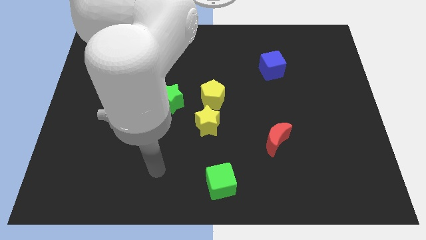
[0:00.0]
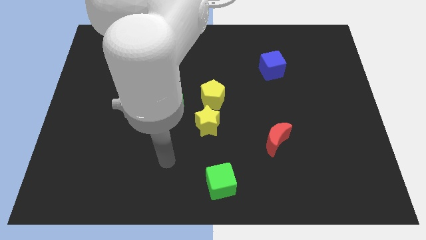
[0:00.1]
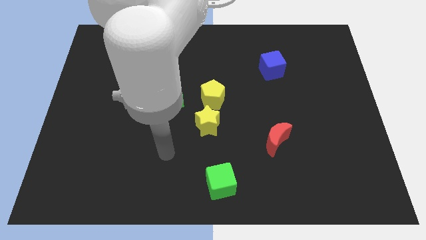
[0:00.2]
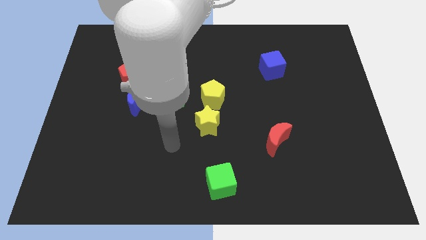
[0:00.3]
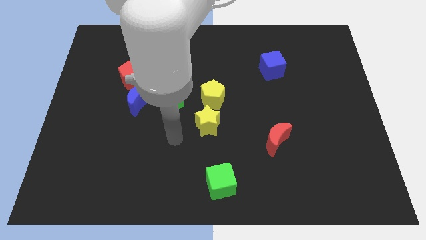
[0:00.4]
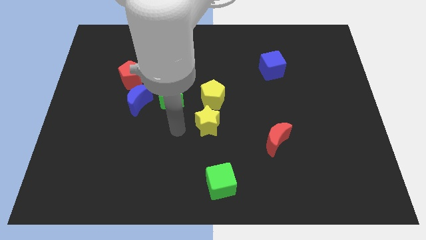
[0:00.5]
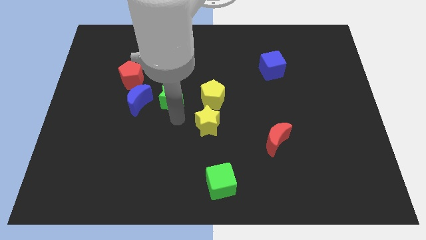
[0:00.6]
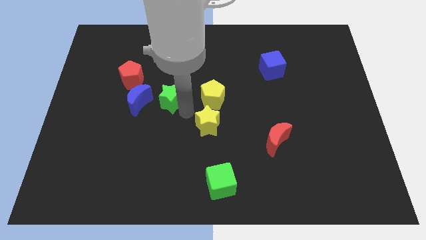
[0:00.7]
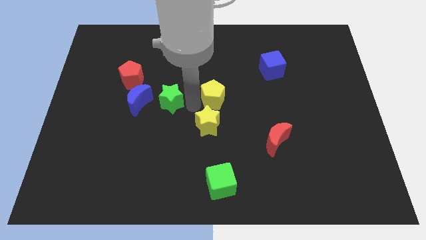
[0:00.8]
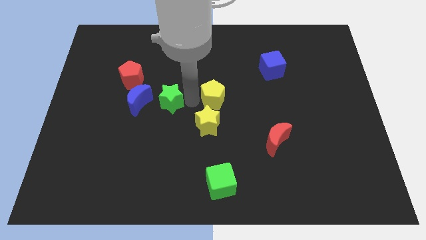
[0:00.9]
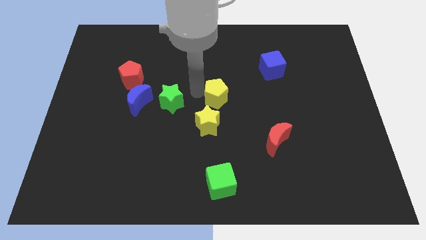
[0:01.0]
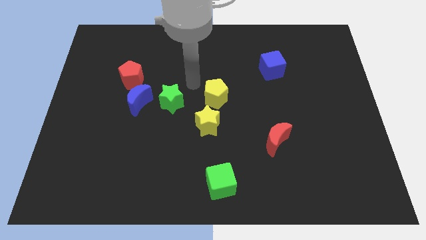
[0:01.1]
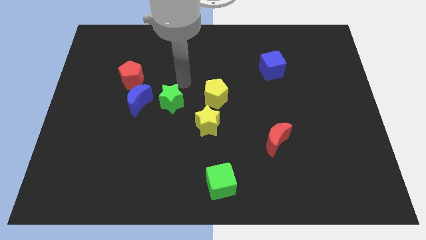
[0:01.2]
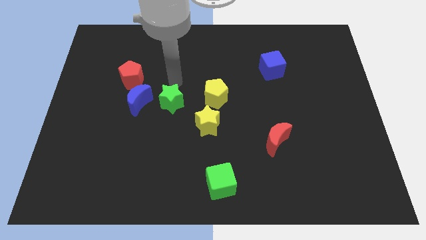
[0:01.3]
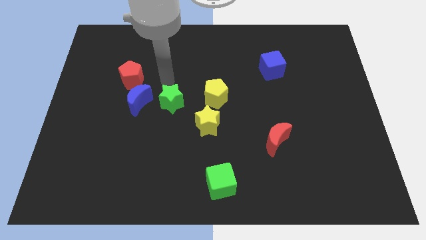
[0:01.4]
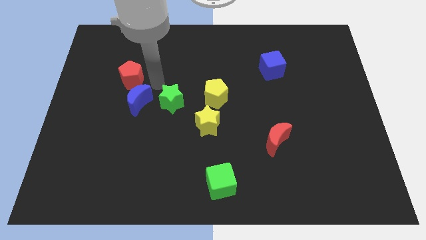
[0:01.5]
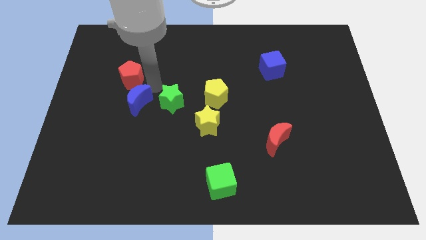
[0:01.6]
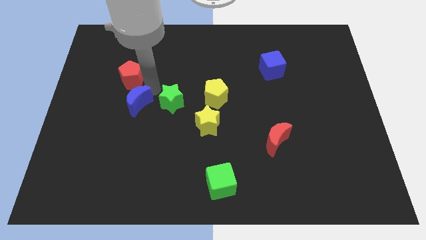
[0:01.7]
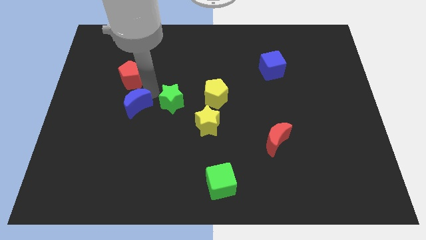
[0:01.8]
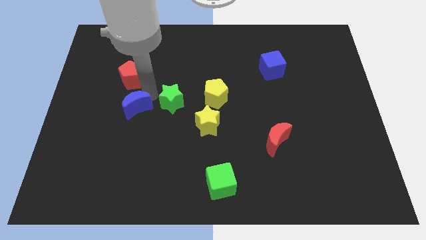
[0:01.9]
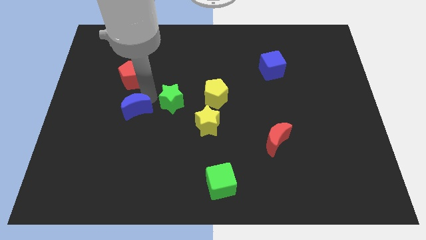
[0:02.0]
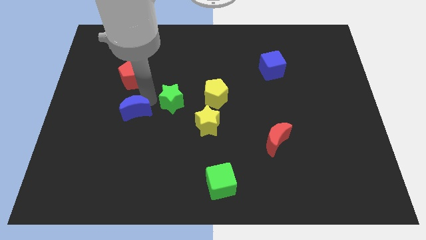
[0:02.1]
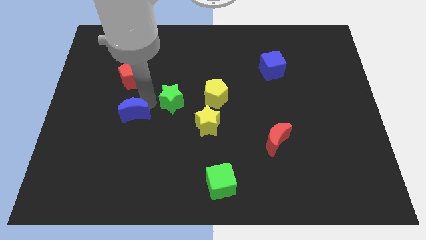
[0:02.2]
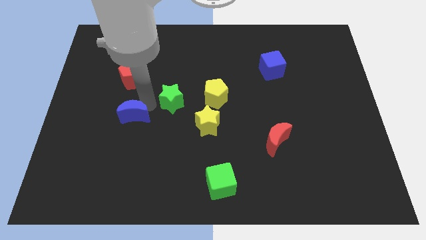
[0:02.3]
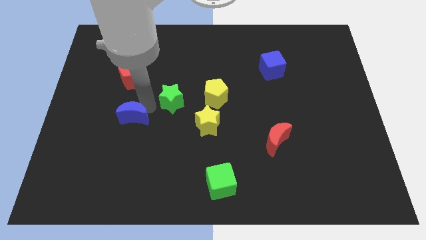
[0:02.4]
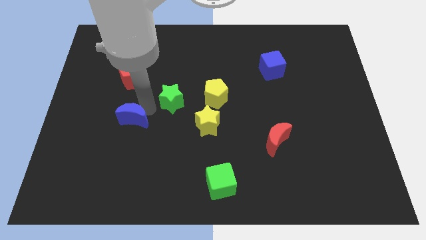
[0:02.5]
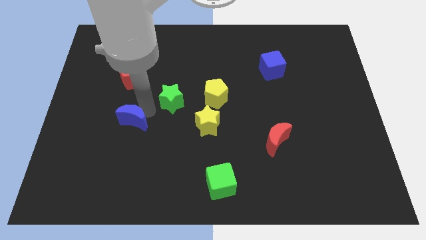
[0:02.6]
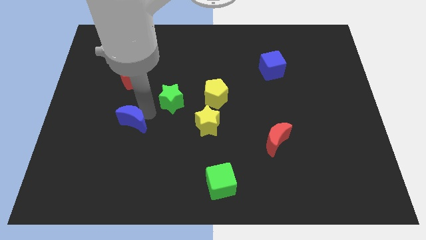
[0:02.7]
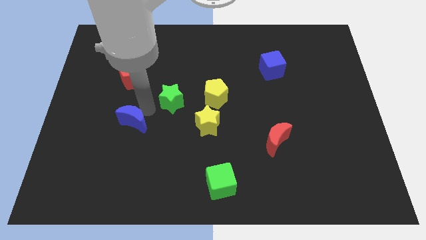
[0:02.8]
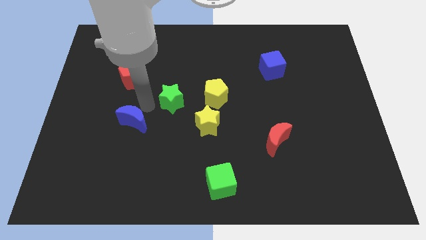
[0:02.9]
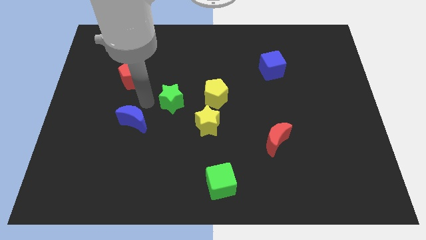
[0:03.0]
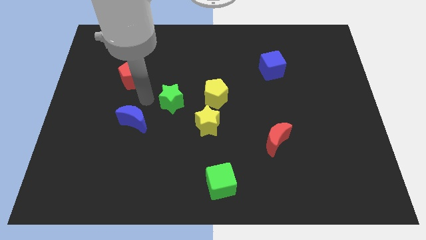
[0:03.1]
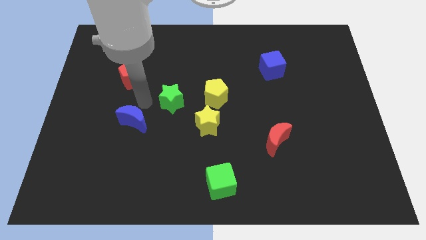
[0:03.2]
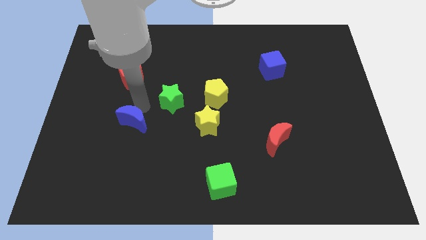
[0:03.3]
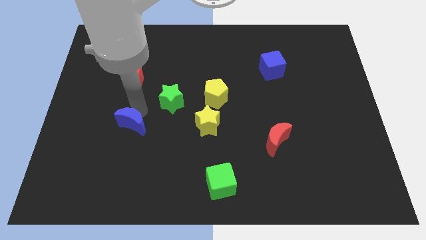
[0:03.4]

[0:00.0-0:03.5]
move the blue moon away from the green star and red pentagon

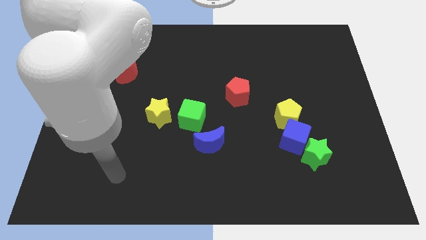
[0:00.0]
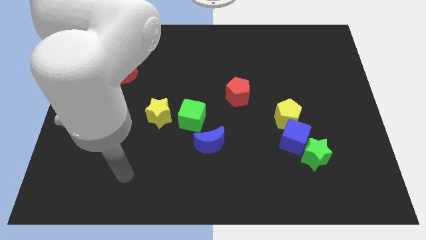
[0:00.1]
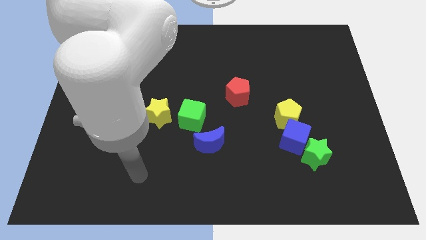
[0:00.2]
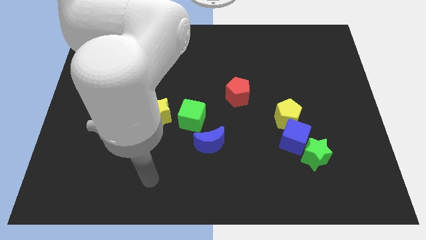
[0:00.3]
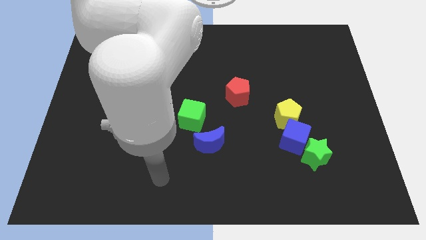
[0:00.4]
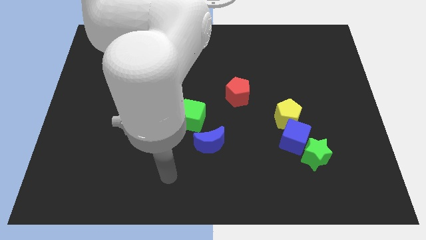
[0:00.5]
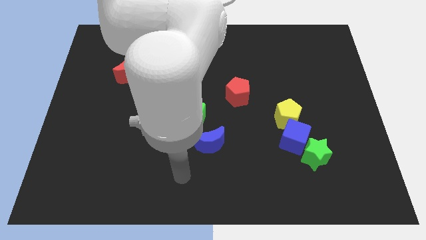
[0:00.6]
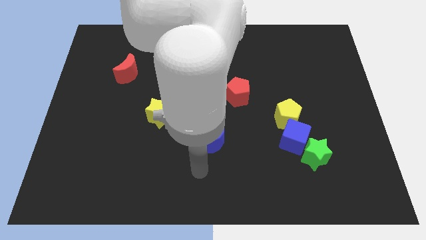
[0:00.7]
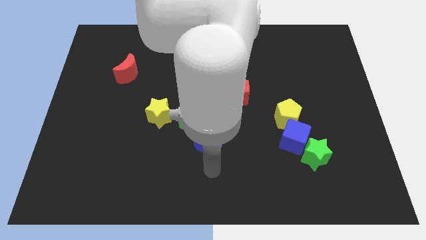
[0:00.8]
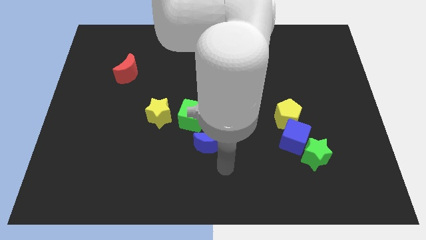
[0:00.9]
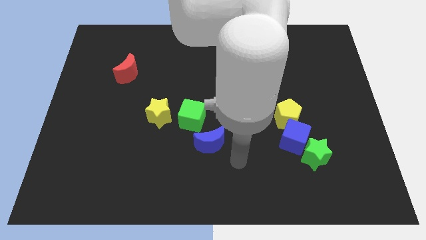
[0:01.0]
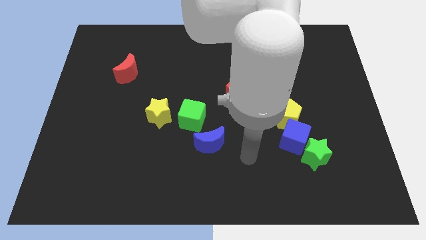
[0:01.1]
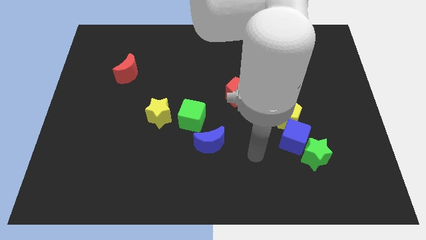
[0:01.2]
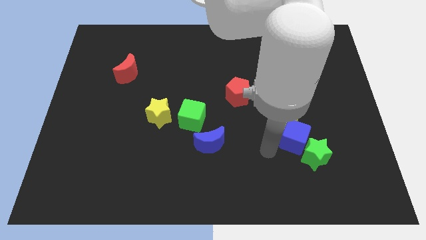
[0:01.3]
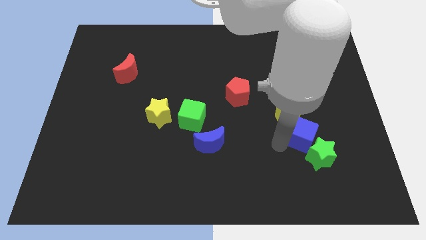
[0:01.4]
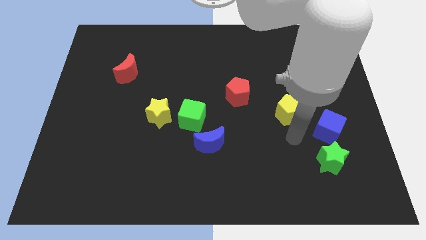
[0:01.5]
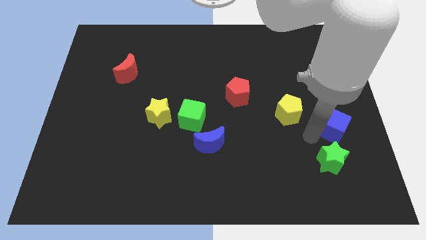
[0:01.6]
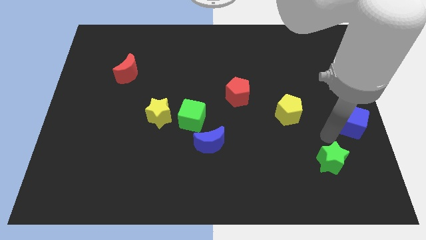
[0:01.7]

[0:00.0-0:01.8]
move the green star away from the blue cube

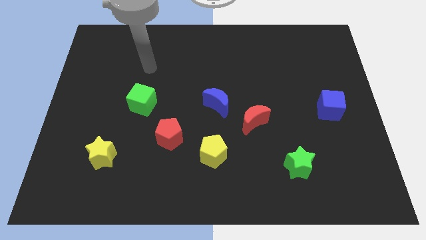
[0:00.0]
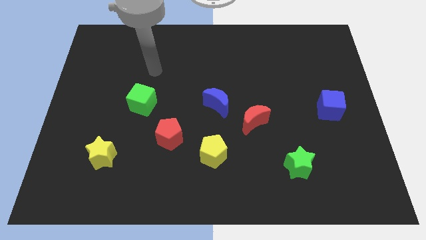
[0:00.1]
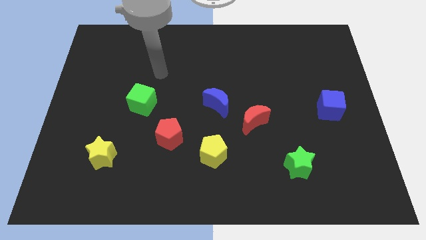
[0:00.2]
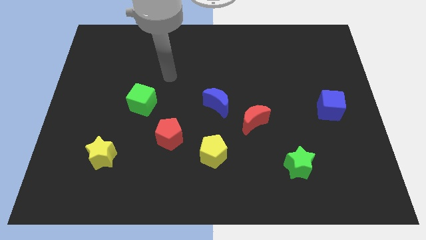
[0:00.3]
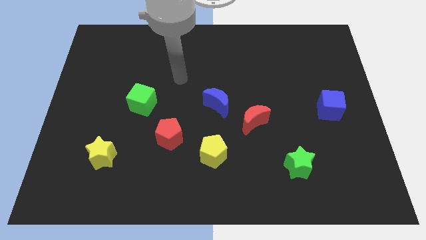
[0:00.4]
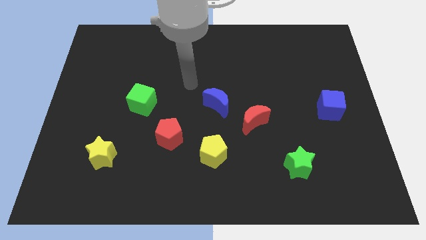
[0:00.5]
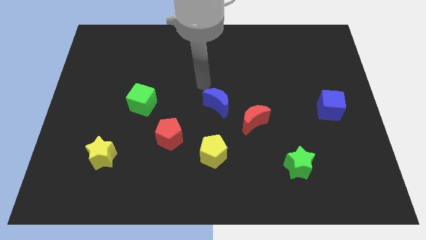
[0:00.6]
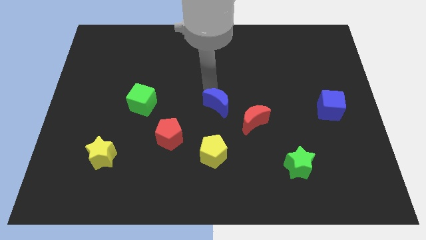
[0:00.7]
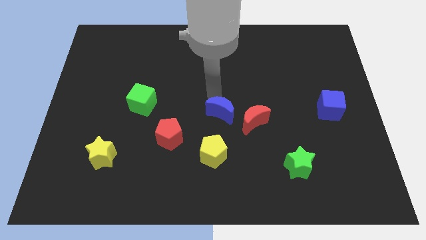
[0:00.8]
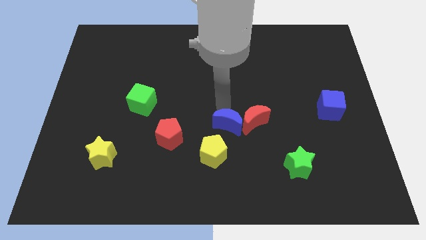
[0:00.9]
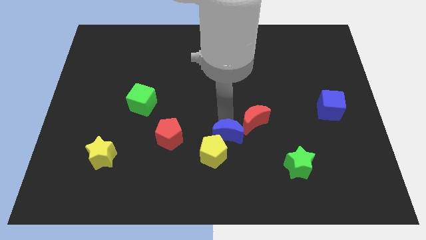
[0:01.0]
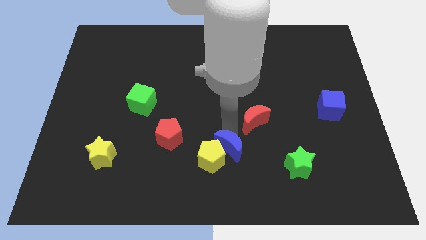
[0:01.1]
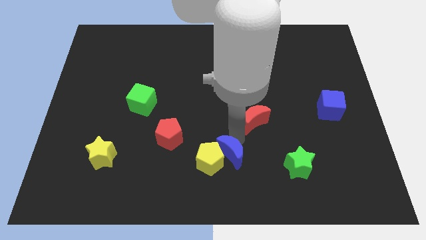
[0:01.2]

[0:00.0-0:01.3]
move the red moon away from the blue moon

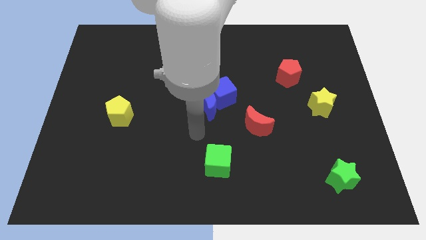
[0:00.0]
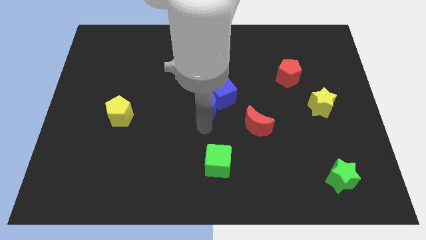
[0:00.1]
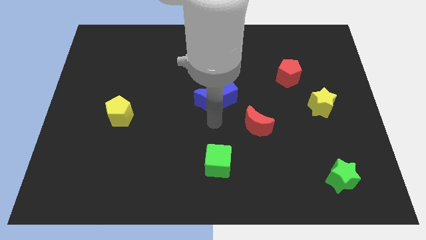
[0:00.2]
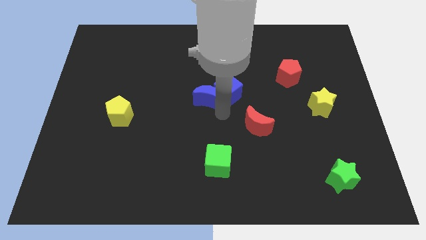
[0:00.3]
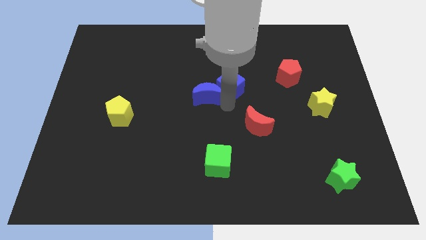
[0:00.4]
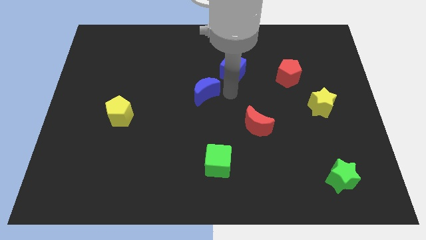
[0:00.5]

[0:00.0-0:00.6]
move the blue moon away from the blue cube

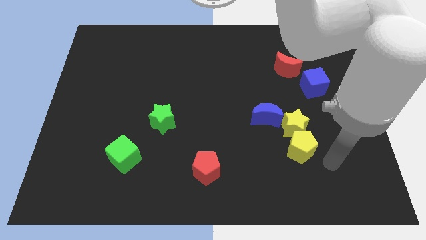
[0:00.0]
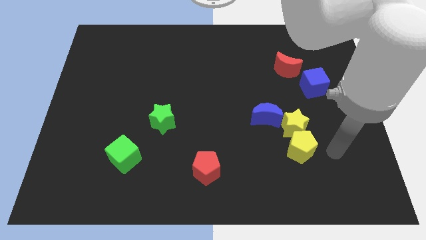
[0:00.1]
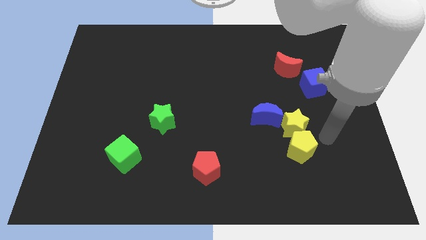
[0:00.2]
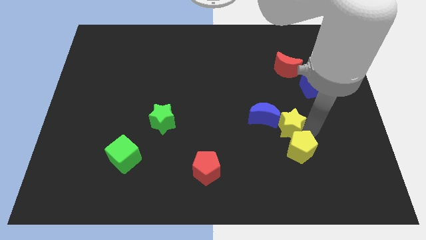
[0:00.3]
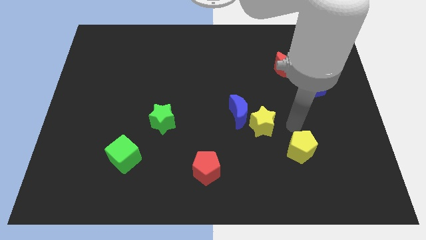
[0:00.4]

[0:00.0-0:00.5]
separate the yellow pentagon from the yellow star

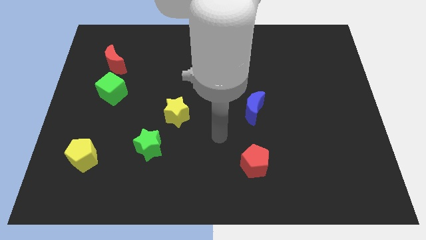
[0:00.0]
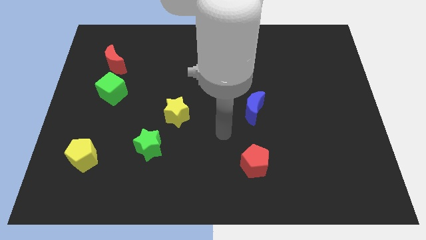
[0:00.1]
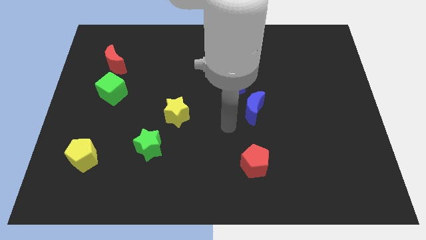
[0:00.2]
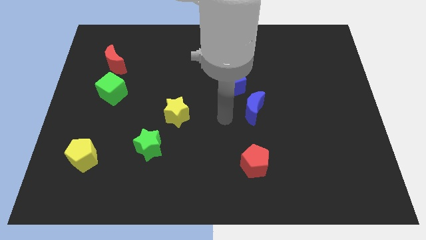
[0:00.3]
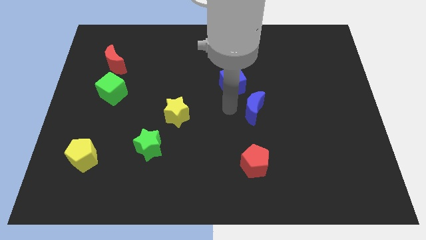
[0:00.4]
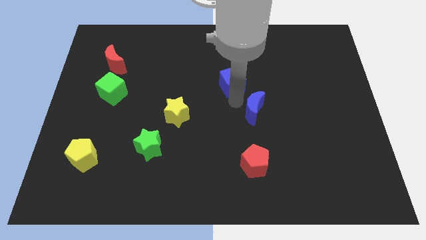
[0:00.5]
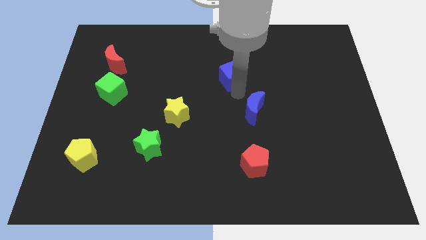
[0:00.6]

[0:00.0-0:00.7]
separate the blue moon from the blue cube

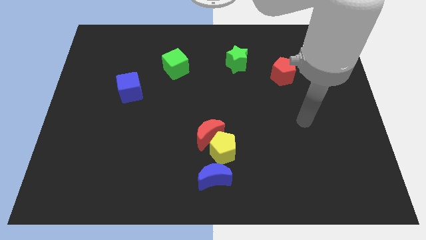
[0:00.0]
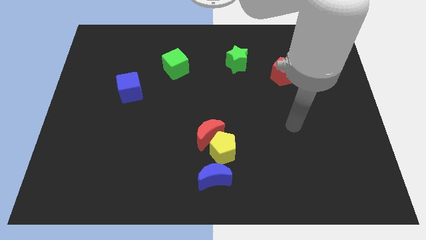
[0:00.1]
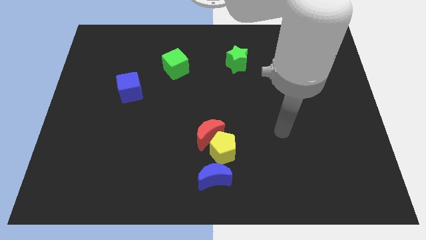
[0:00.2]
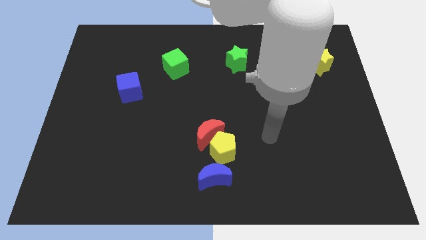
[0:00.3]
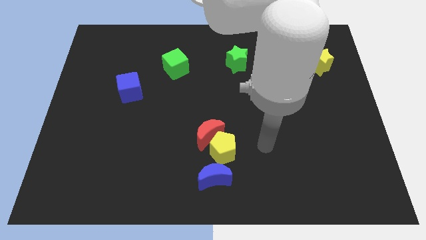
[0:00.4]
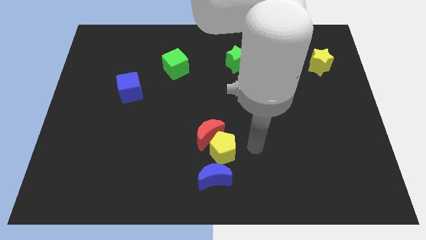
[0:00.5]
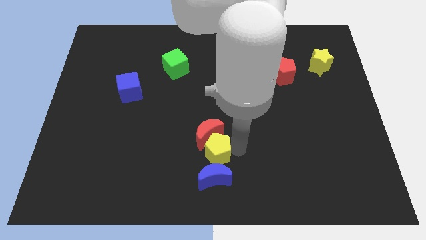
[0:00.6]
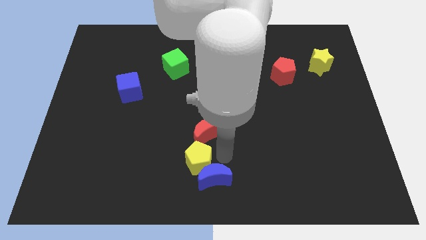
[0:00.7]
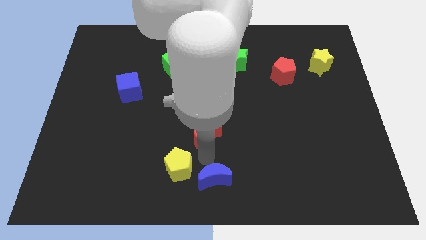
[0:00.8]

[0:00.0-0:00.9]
move the red moon away from the yellow pentagon
